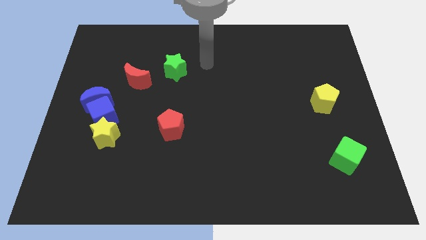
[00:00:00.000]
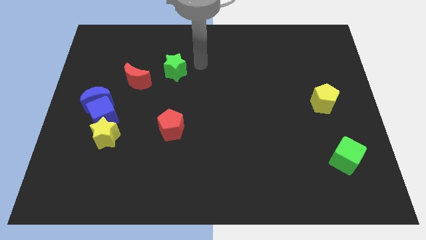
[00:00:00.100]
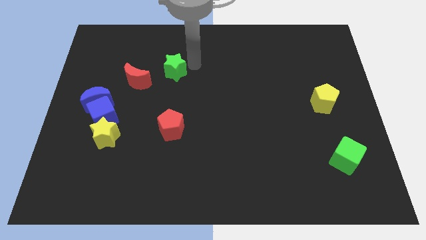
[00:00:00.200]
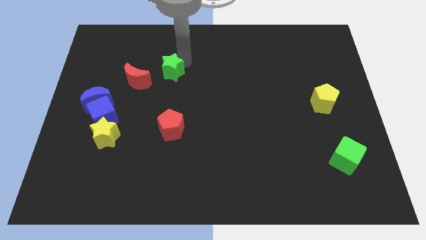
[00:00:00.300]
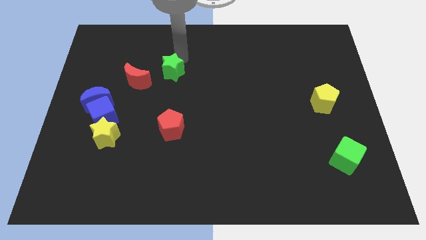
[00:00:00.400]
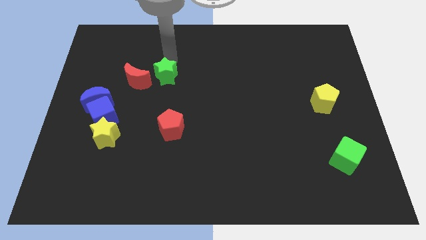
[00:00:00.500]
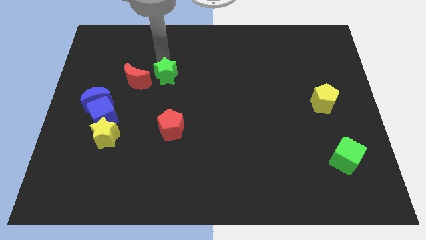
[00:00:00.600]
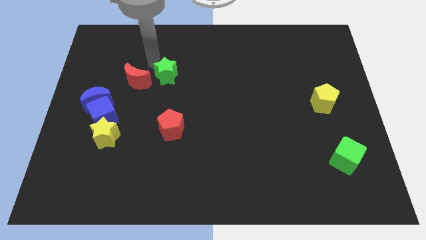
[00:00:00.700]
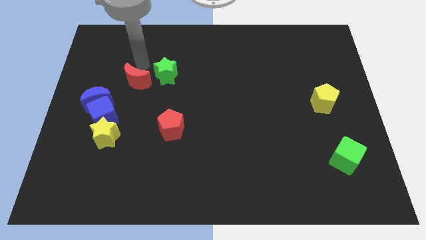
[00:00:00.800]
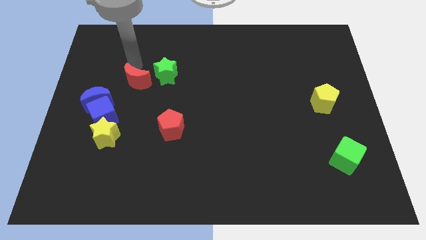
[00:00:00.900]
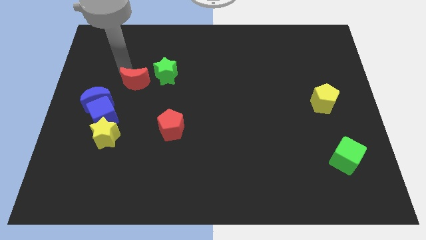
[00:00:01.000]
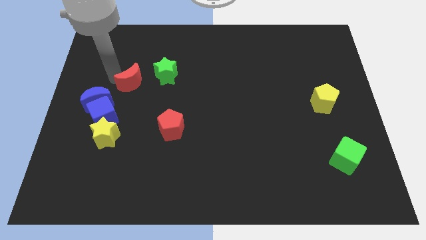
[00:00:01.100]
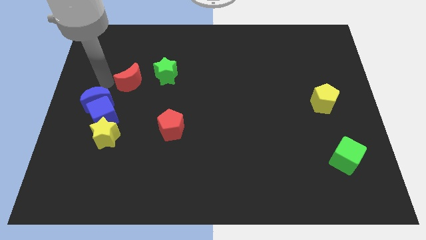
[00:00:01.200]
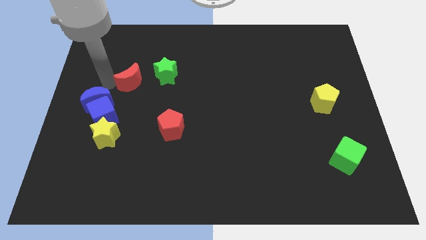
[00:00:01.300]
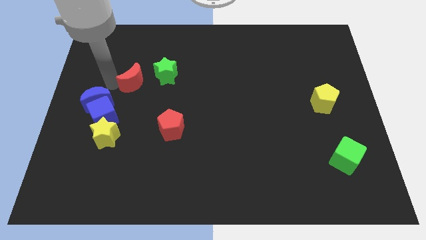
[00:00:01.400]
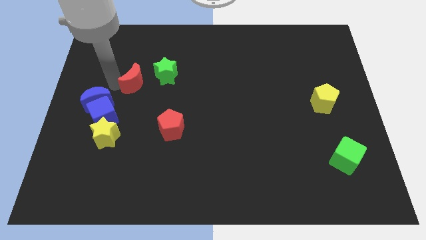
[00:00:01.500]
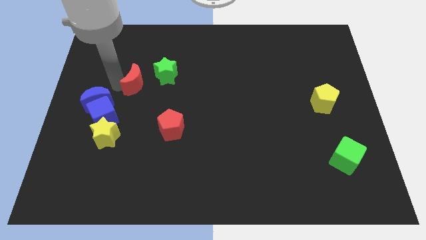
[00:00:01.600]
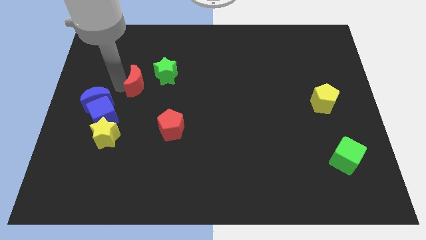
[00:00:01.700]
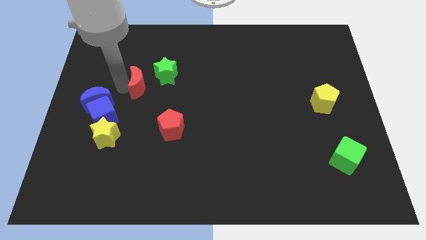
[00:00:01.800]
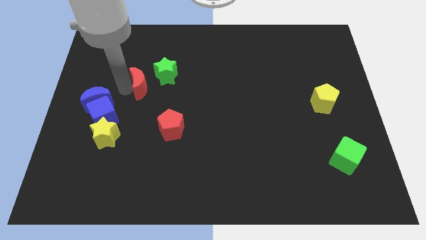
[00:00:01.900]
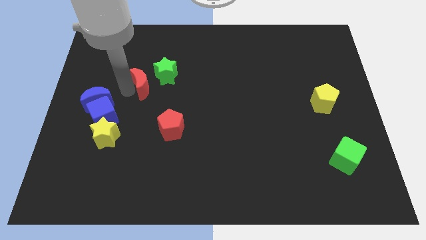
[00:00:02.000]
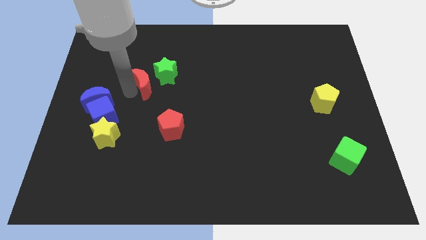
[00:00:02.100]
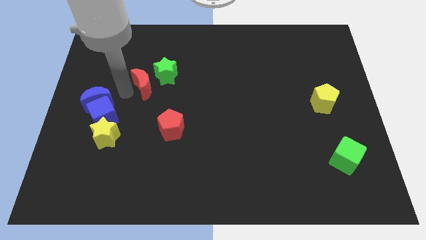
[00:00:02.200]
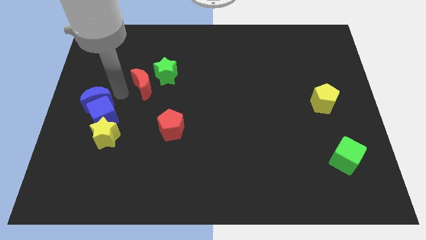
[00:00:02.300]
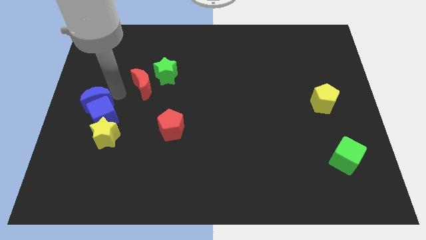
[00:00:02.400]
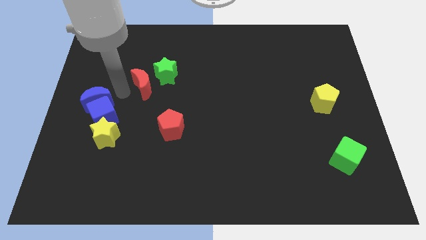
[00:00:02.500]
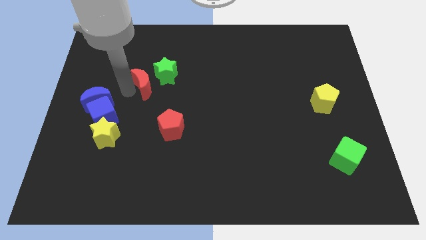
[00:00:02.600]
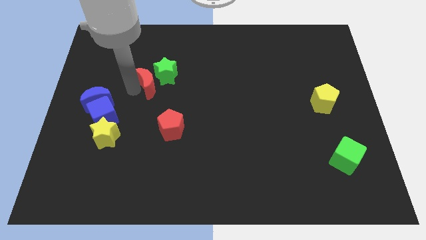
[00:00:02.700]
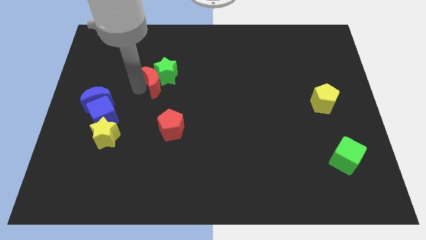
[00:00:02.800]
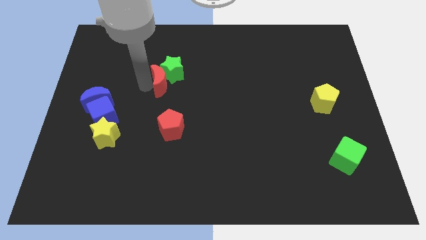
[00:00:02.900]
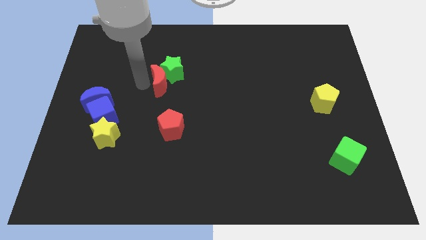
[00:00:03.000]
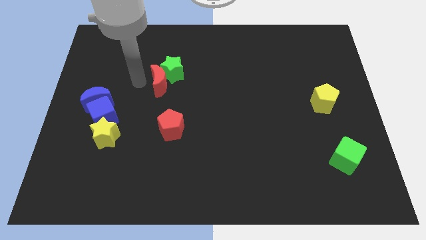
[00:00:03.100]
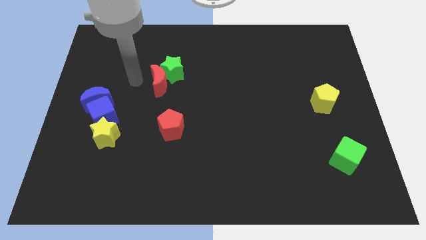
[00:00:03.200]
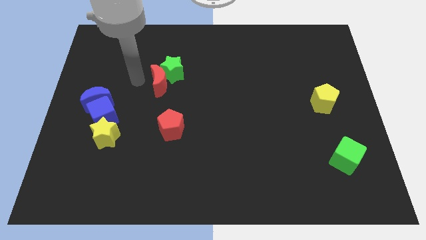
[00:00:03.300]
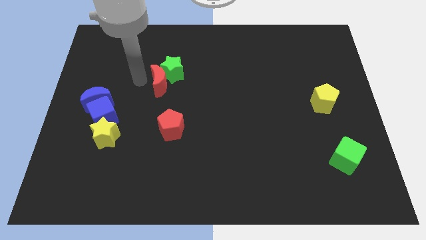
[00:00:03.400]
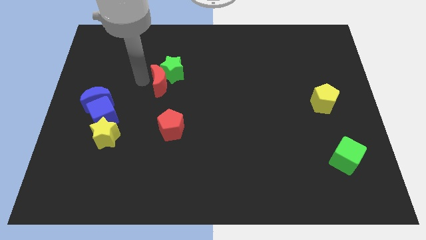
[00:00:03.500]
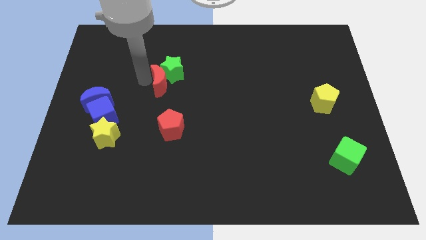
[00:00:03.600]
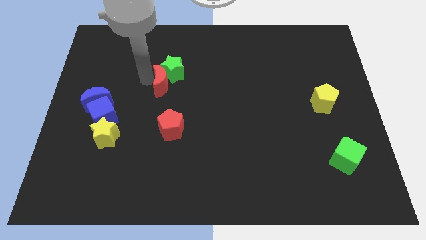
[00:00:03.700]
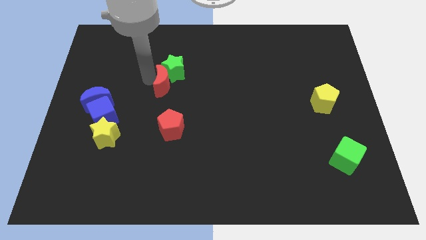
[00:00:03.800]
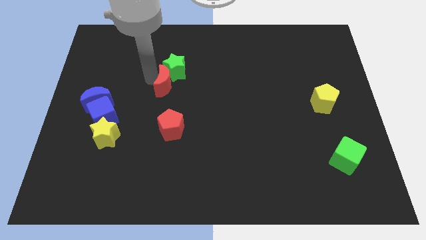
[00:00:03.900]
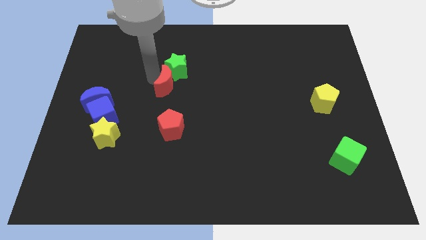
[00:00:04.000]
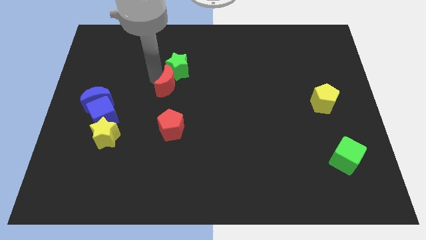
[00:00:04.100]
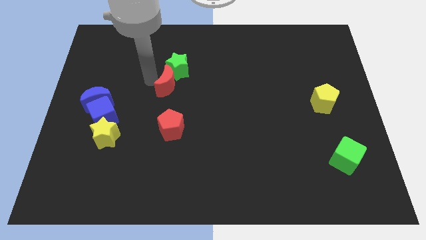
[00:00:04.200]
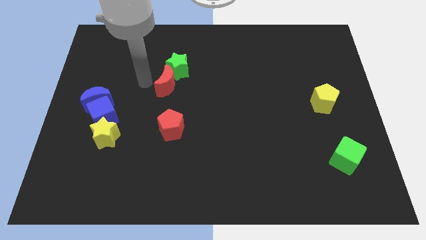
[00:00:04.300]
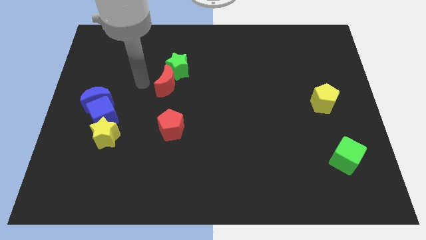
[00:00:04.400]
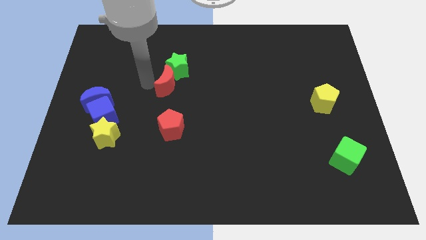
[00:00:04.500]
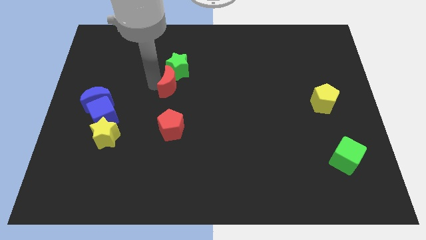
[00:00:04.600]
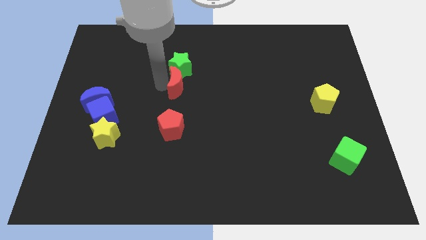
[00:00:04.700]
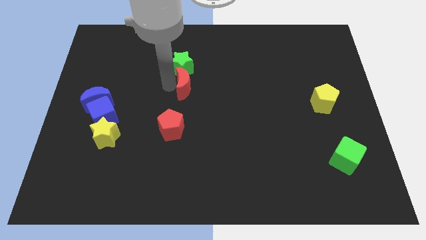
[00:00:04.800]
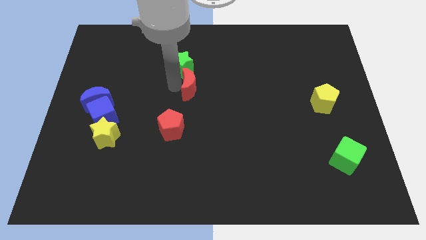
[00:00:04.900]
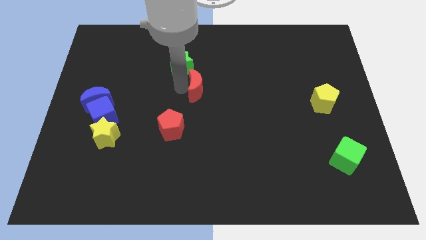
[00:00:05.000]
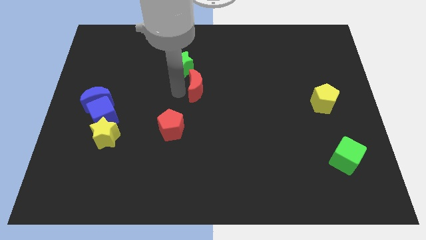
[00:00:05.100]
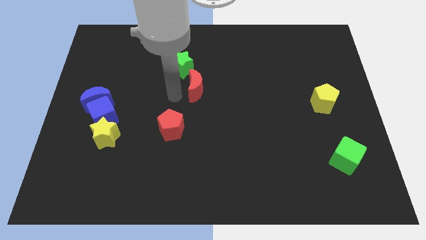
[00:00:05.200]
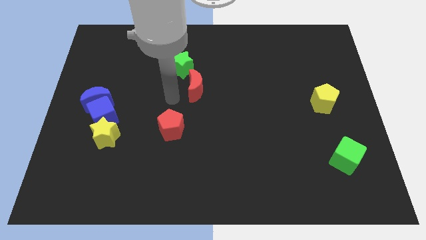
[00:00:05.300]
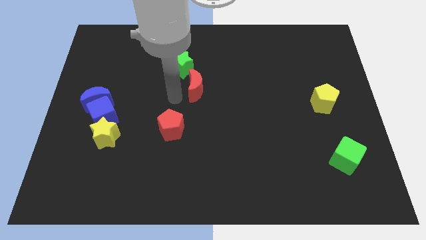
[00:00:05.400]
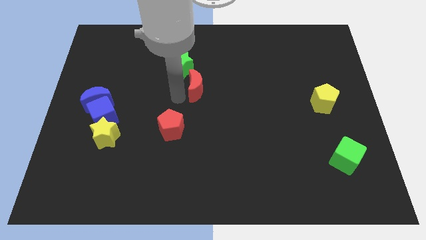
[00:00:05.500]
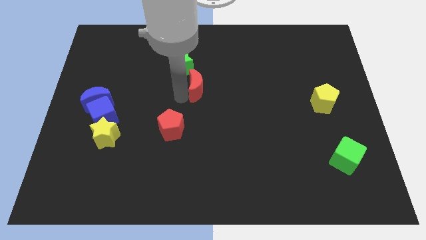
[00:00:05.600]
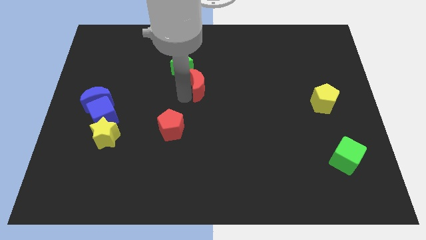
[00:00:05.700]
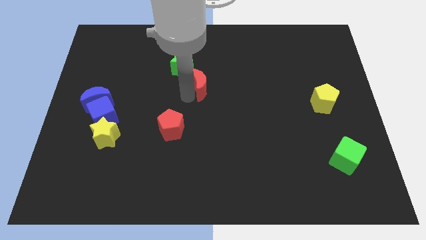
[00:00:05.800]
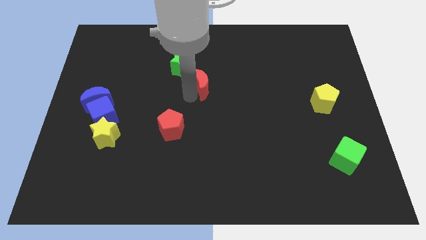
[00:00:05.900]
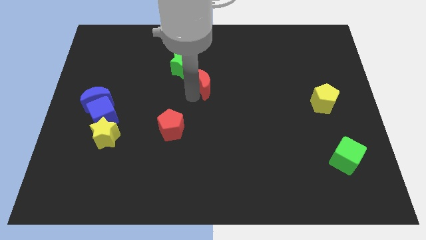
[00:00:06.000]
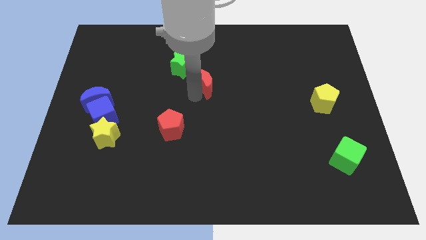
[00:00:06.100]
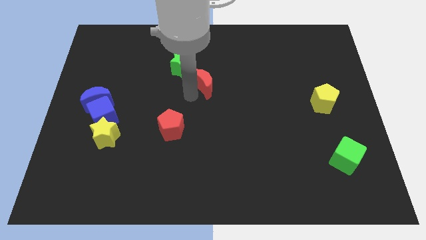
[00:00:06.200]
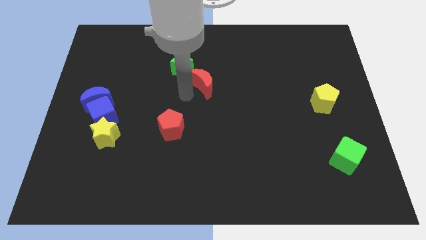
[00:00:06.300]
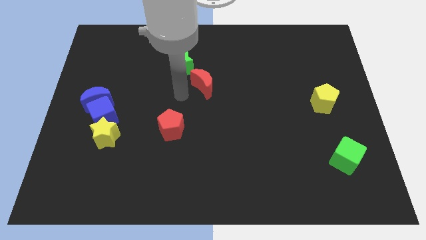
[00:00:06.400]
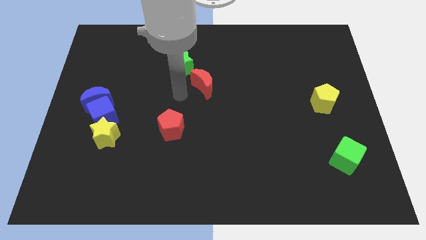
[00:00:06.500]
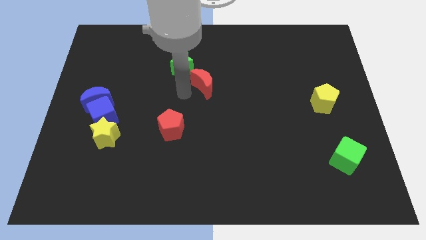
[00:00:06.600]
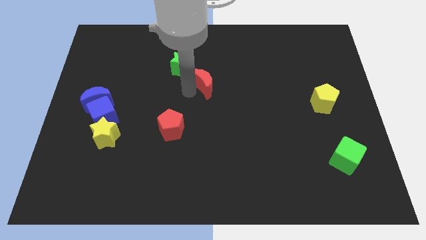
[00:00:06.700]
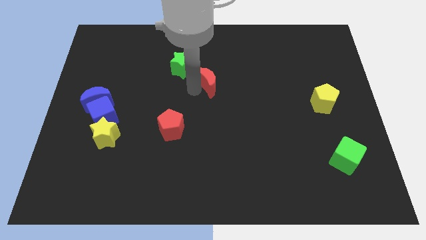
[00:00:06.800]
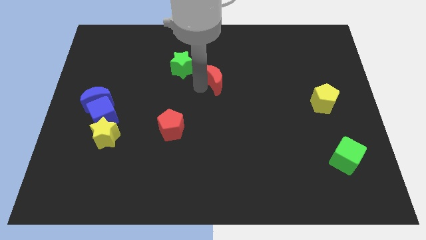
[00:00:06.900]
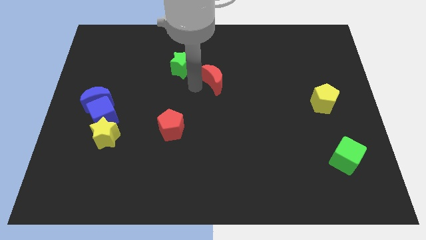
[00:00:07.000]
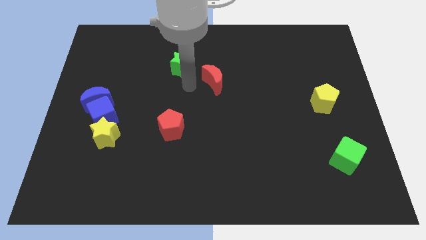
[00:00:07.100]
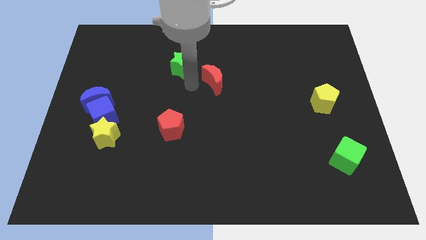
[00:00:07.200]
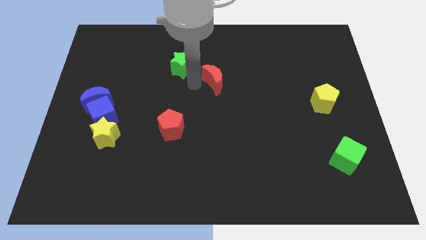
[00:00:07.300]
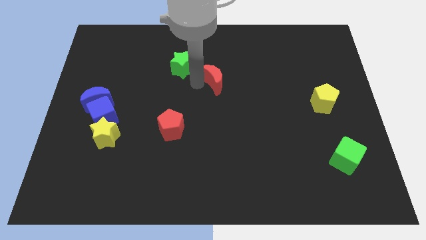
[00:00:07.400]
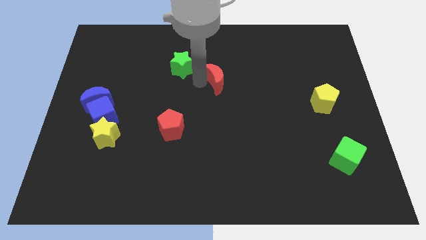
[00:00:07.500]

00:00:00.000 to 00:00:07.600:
move the red moon to the right

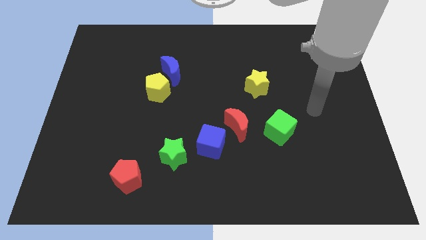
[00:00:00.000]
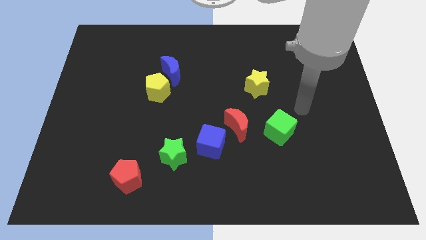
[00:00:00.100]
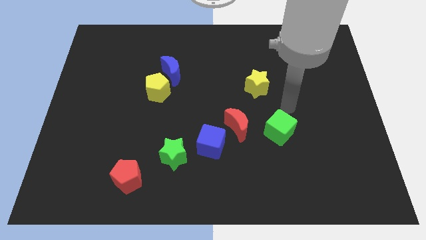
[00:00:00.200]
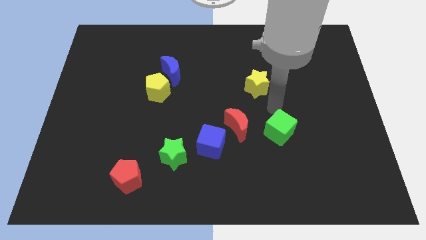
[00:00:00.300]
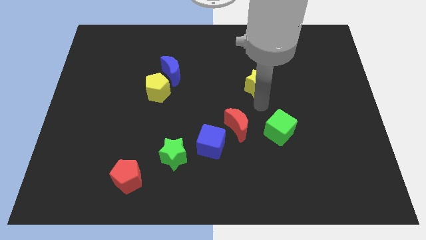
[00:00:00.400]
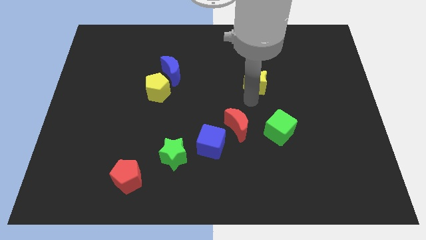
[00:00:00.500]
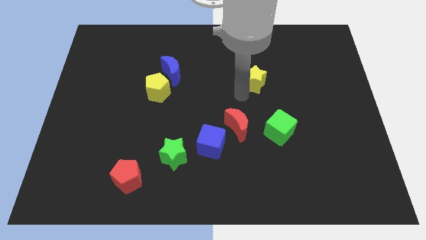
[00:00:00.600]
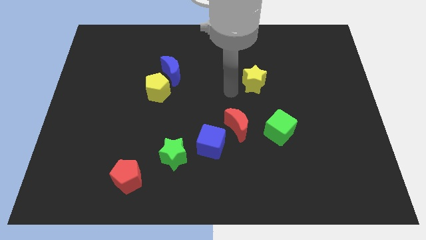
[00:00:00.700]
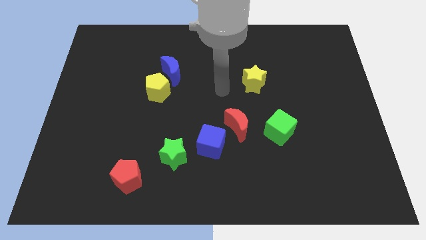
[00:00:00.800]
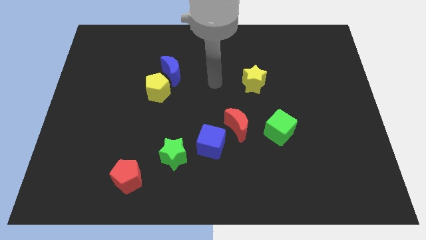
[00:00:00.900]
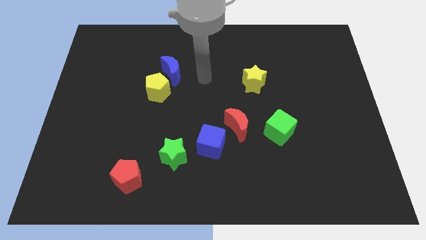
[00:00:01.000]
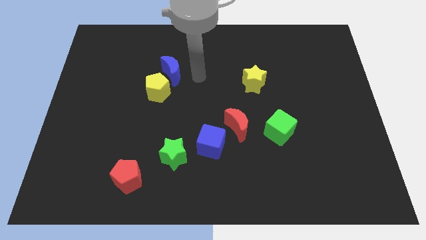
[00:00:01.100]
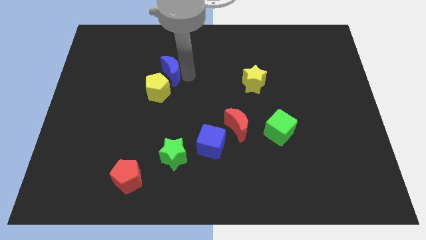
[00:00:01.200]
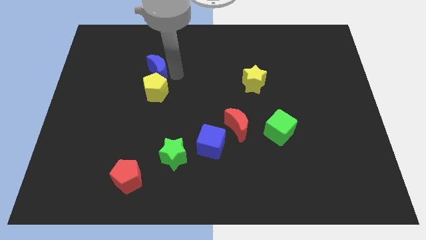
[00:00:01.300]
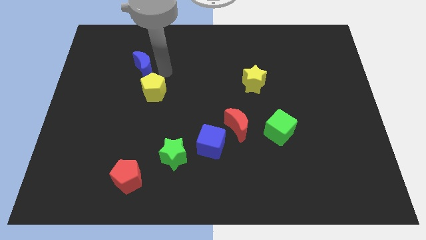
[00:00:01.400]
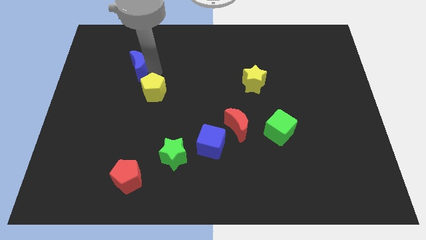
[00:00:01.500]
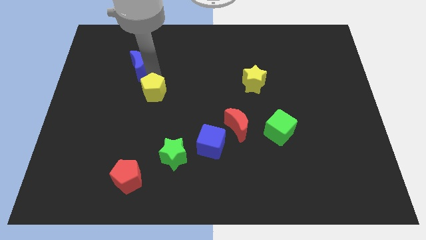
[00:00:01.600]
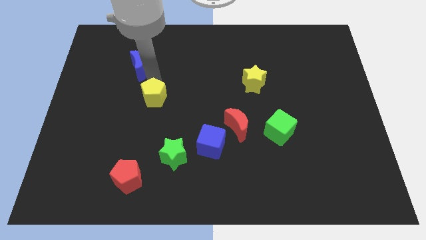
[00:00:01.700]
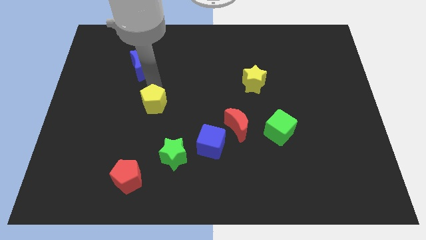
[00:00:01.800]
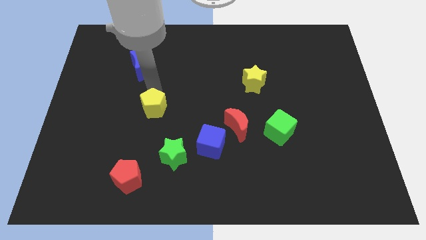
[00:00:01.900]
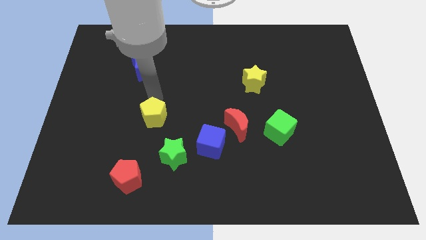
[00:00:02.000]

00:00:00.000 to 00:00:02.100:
push the yellow pentagon down somewhat
